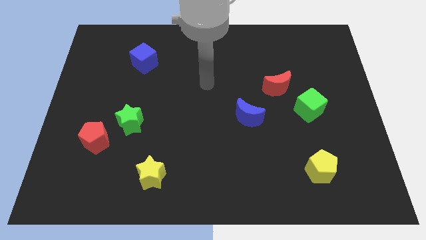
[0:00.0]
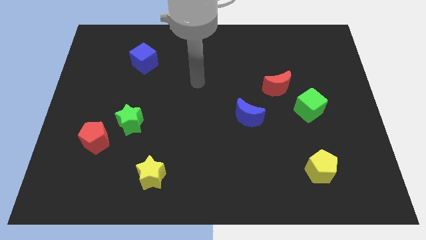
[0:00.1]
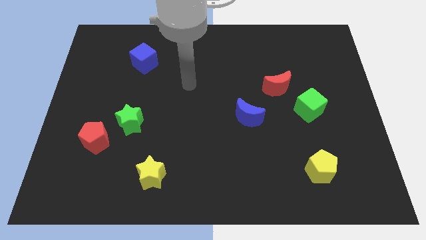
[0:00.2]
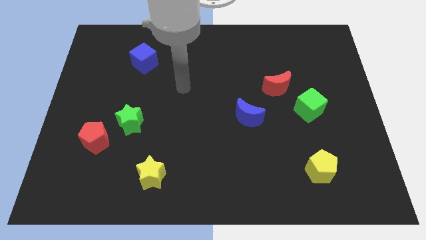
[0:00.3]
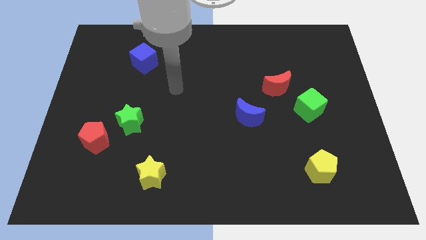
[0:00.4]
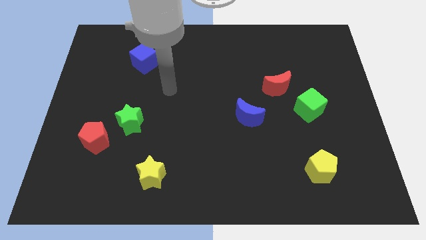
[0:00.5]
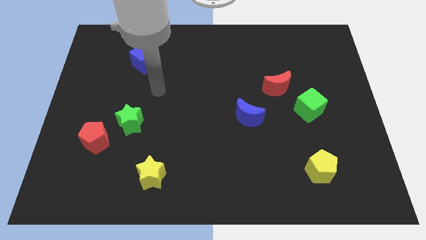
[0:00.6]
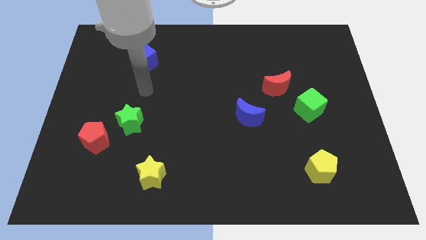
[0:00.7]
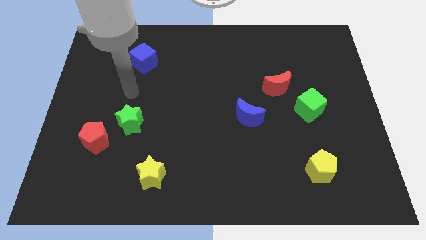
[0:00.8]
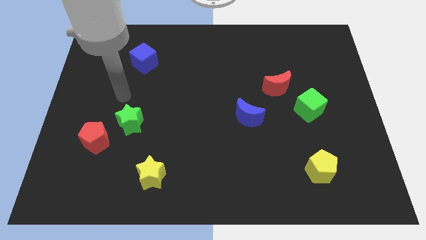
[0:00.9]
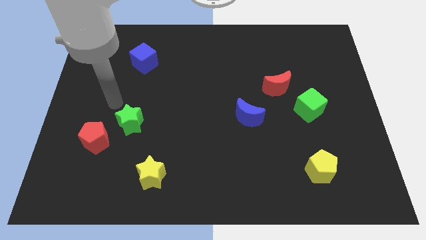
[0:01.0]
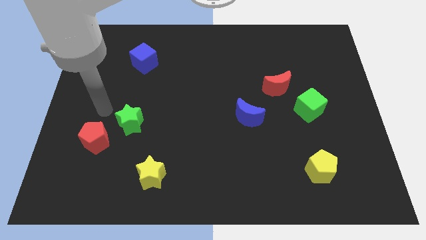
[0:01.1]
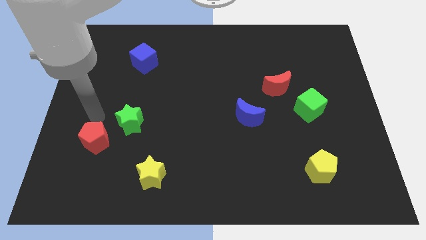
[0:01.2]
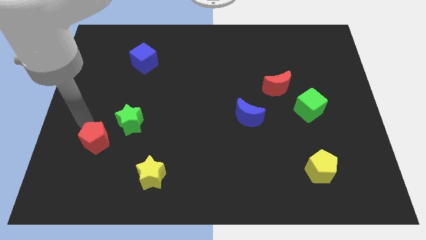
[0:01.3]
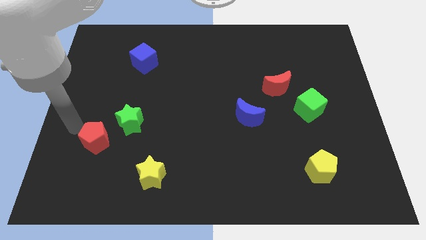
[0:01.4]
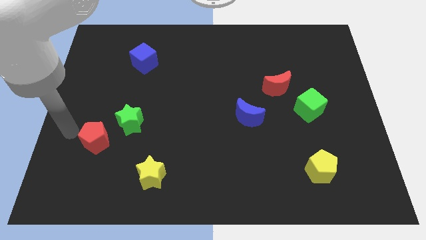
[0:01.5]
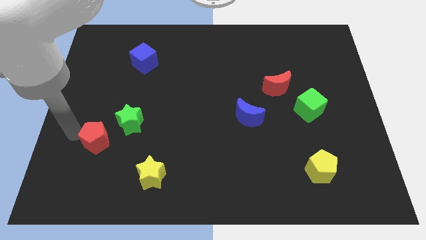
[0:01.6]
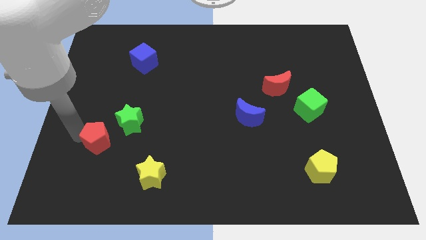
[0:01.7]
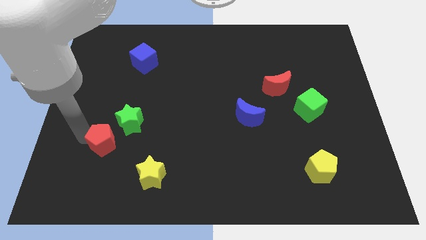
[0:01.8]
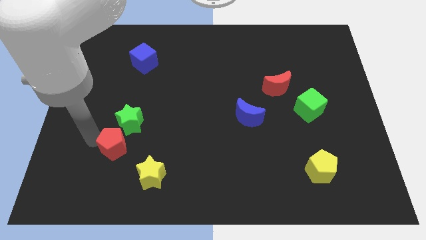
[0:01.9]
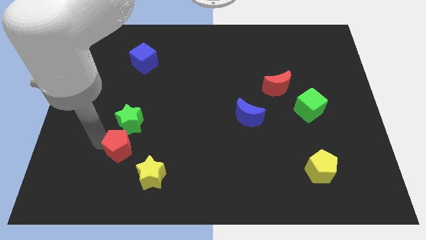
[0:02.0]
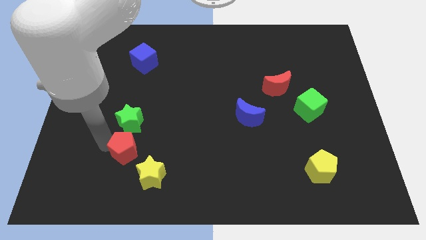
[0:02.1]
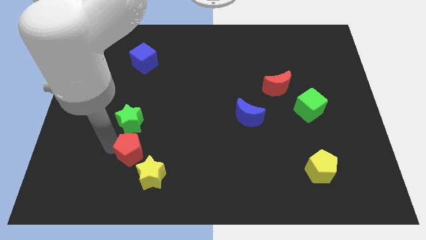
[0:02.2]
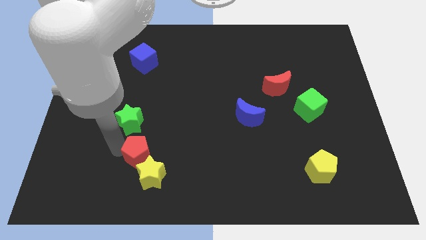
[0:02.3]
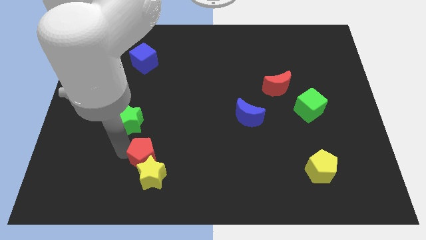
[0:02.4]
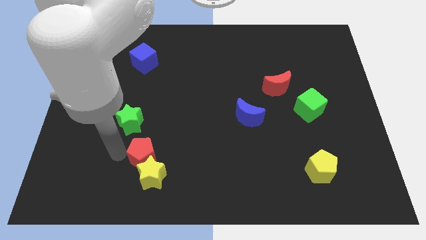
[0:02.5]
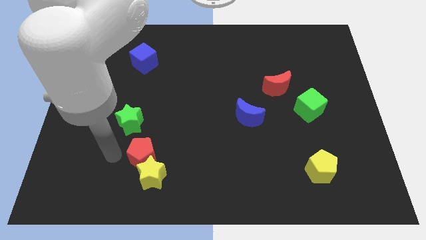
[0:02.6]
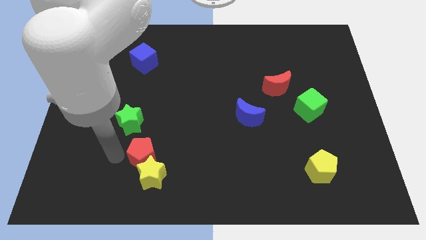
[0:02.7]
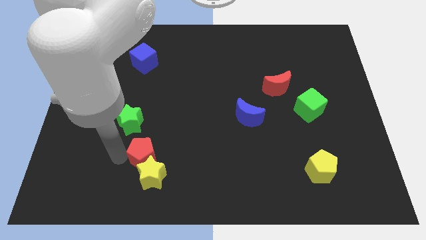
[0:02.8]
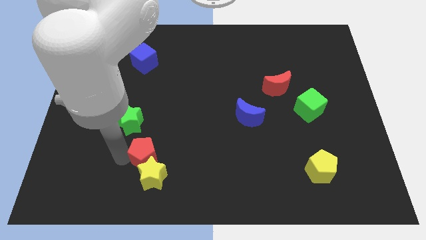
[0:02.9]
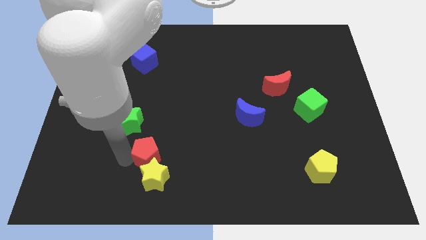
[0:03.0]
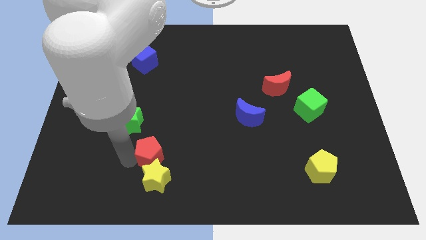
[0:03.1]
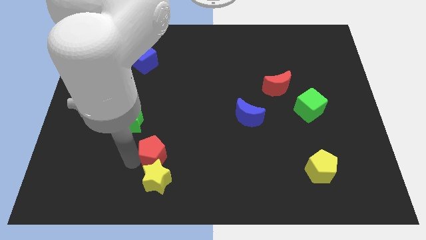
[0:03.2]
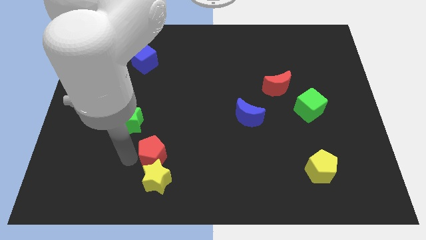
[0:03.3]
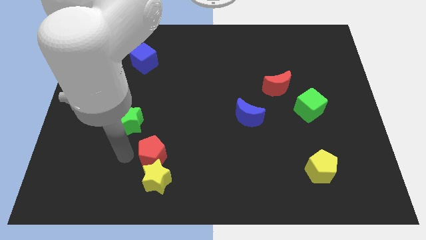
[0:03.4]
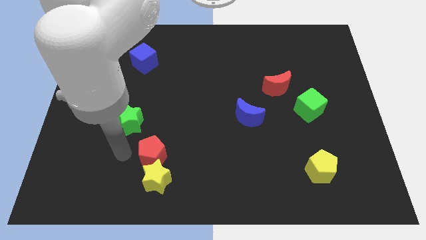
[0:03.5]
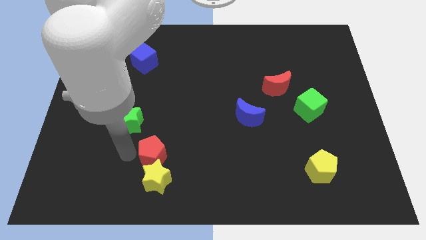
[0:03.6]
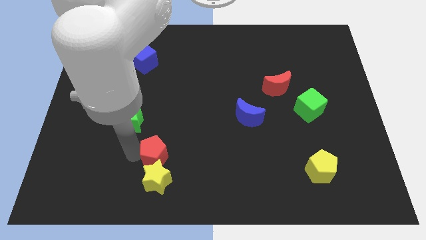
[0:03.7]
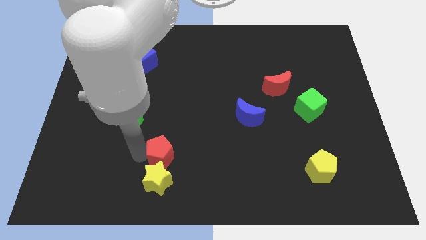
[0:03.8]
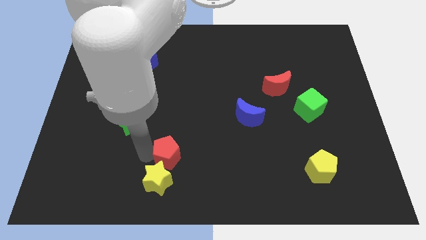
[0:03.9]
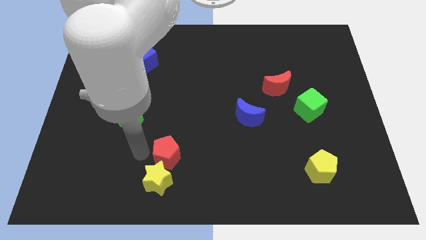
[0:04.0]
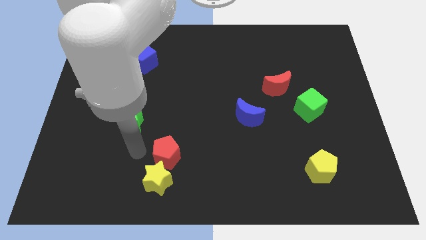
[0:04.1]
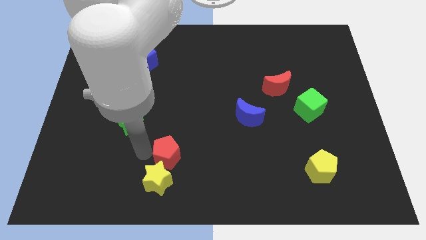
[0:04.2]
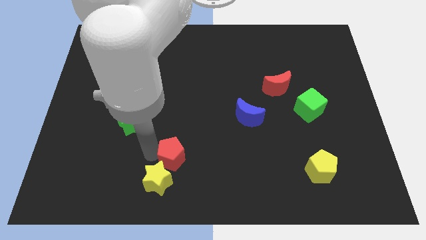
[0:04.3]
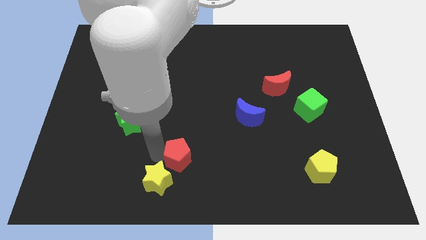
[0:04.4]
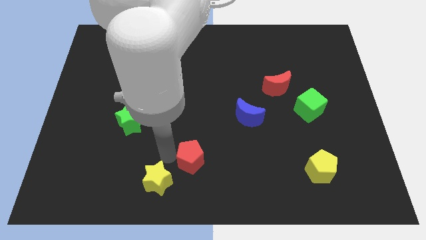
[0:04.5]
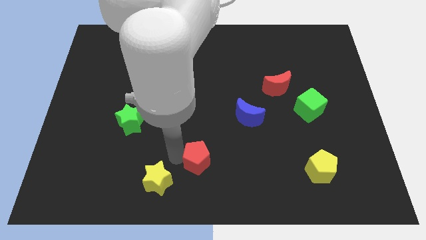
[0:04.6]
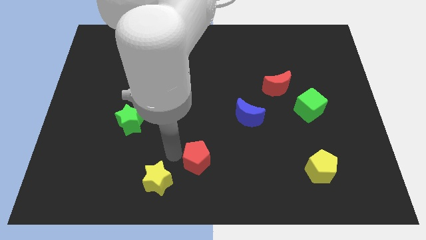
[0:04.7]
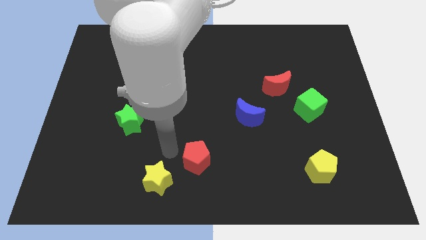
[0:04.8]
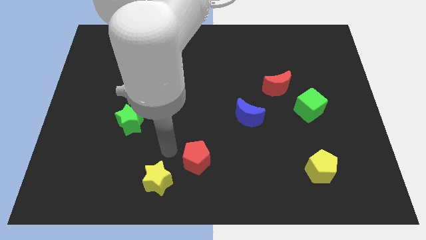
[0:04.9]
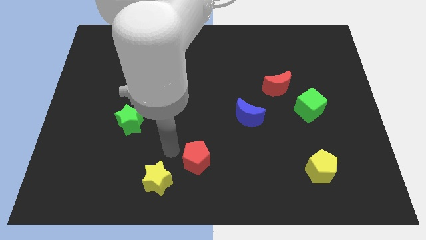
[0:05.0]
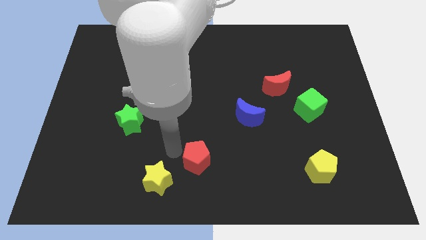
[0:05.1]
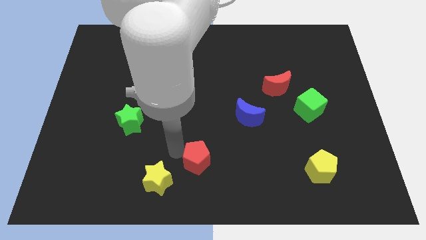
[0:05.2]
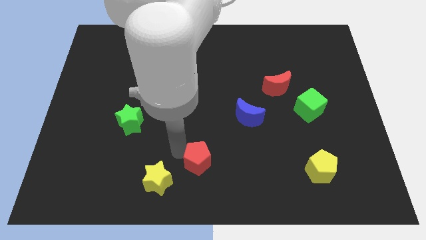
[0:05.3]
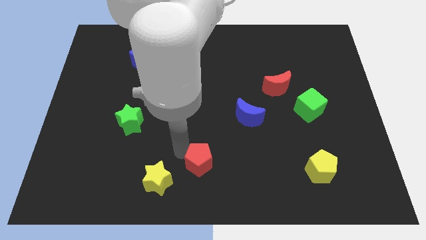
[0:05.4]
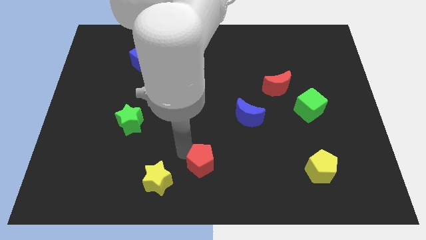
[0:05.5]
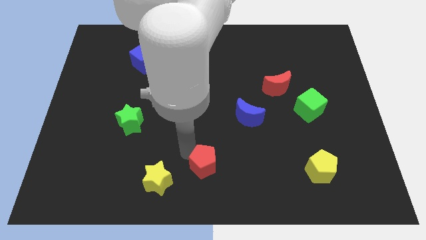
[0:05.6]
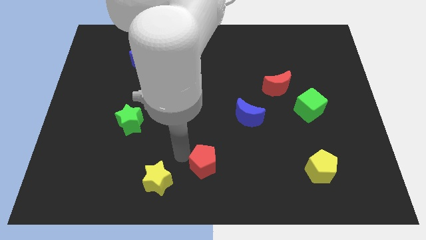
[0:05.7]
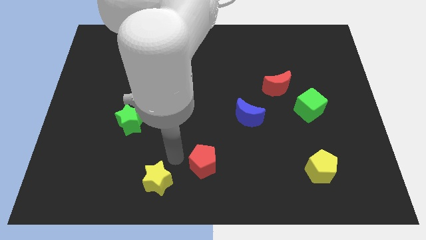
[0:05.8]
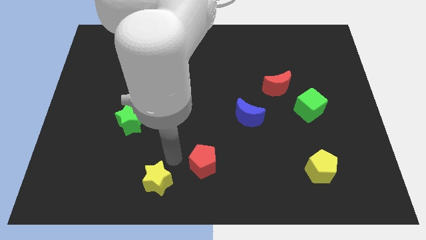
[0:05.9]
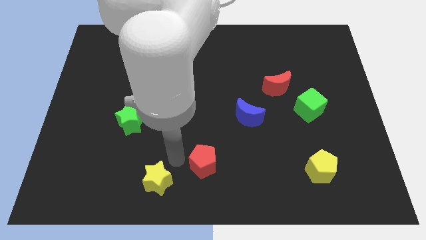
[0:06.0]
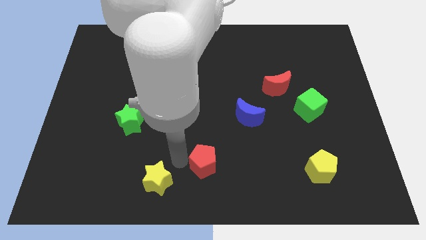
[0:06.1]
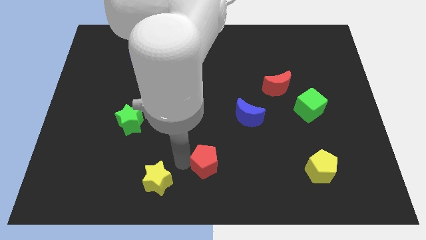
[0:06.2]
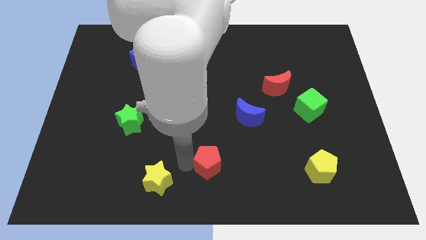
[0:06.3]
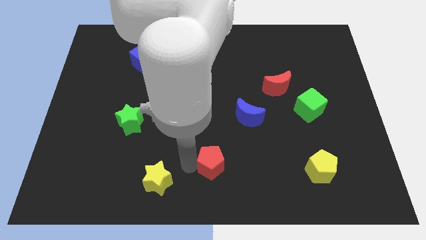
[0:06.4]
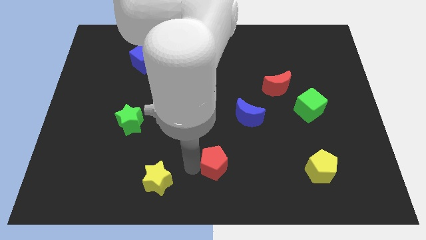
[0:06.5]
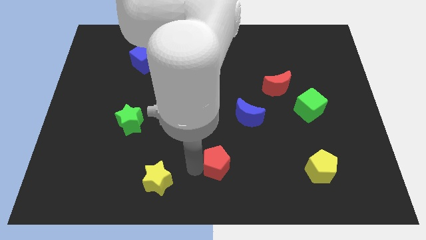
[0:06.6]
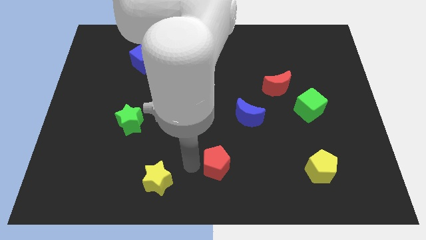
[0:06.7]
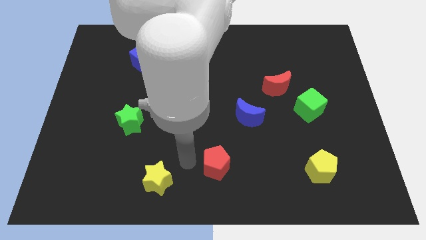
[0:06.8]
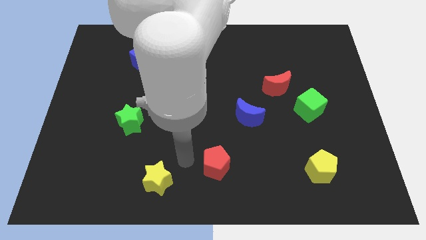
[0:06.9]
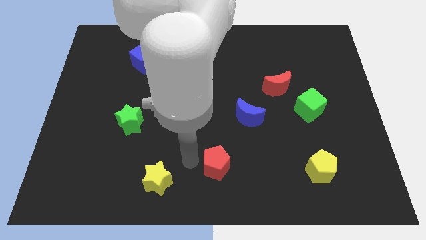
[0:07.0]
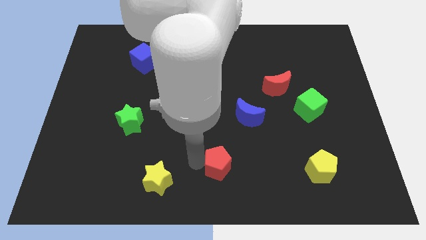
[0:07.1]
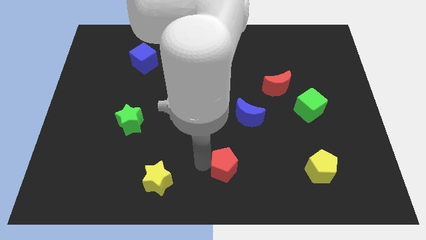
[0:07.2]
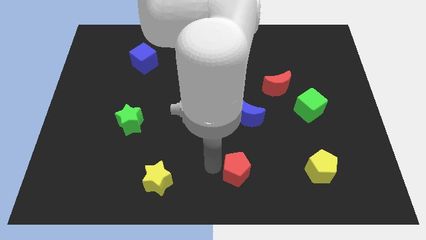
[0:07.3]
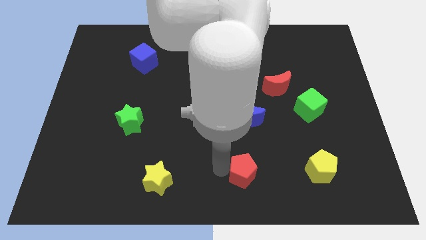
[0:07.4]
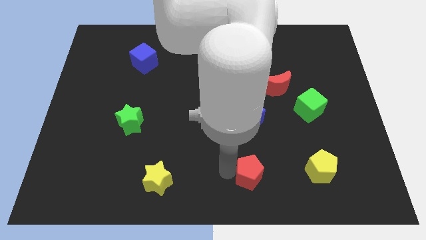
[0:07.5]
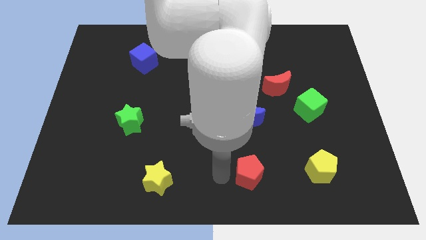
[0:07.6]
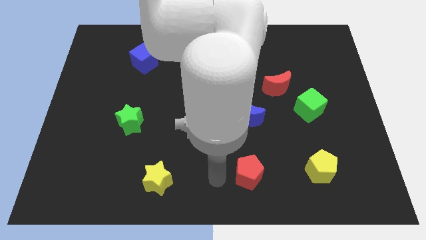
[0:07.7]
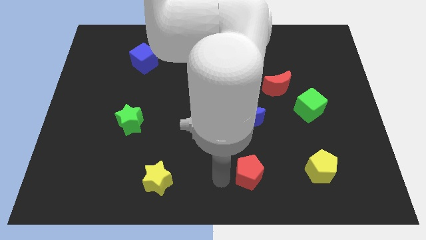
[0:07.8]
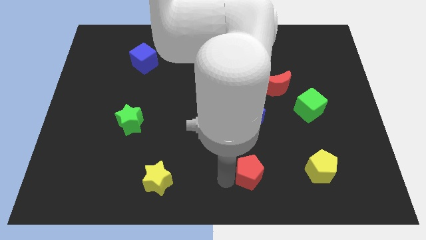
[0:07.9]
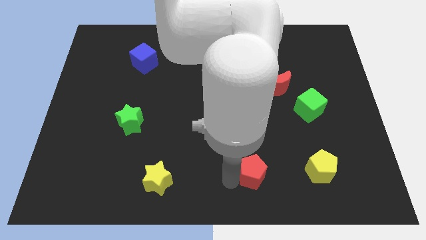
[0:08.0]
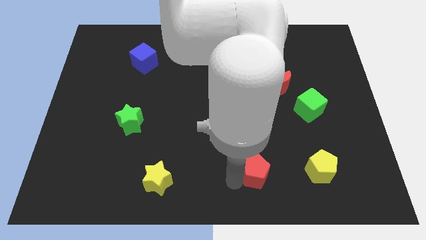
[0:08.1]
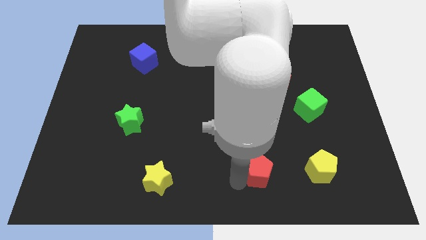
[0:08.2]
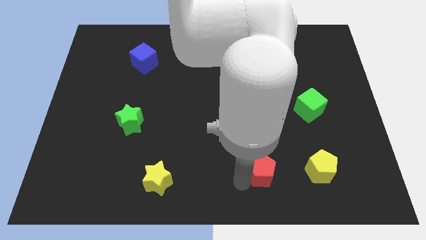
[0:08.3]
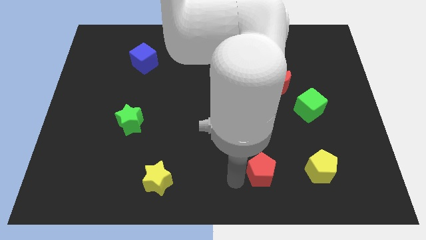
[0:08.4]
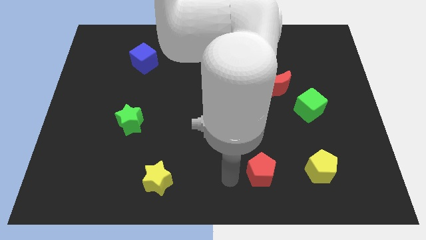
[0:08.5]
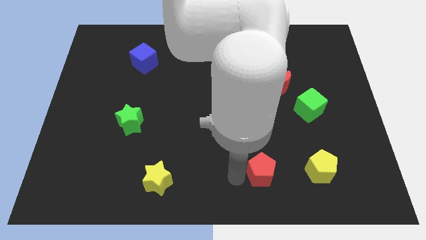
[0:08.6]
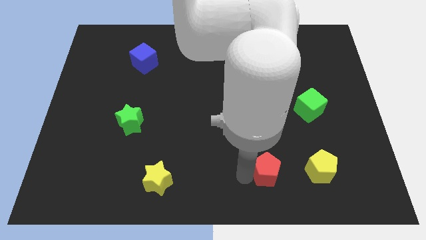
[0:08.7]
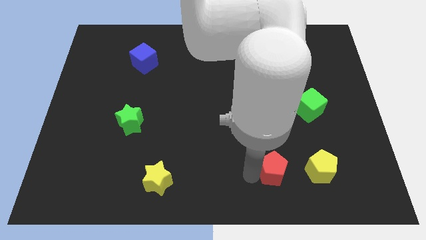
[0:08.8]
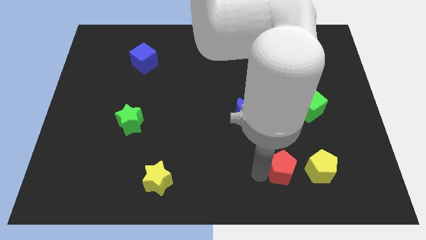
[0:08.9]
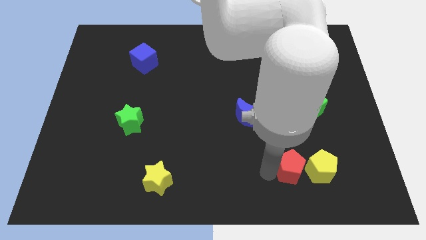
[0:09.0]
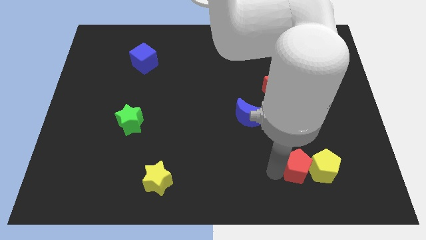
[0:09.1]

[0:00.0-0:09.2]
move the red pentagon to the yellow pentagon
